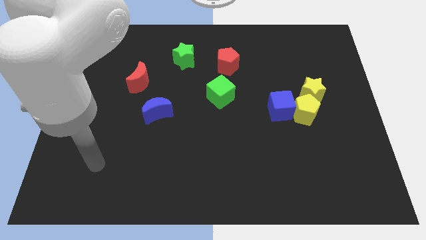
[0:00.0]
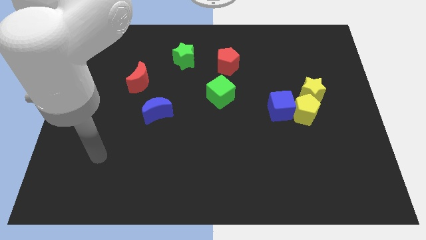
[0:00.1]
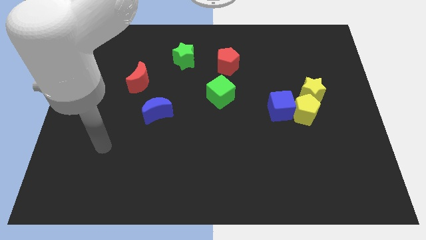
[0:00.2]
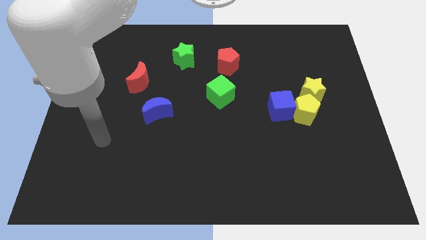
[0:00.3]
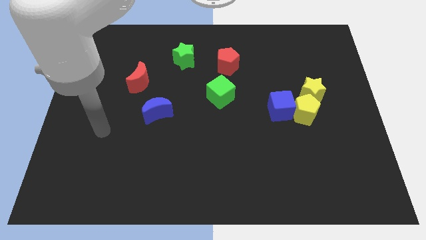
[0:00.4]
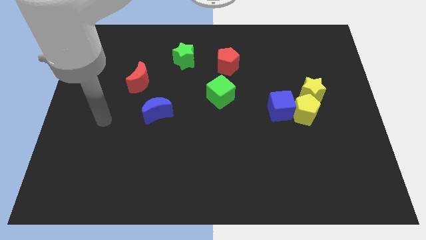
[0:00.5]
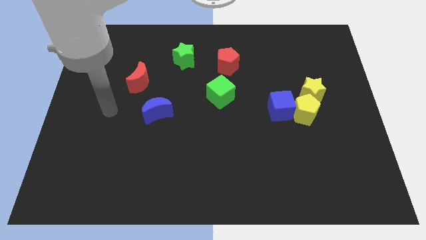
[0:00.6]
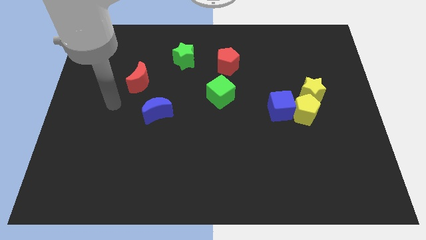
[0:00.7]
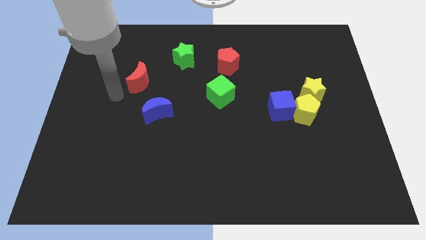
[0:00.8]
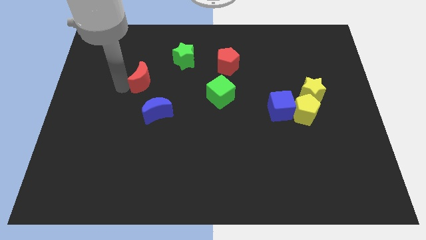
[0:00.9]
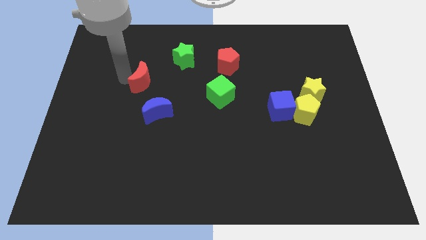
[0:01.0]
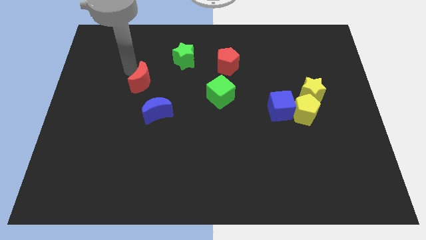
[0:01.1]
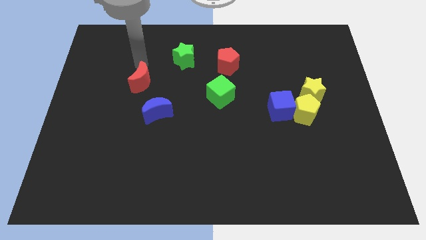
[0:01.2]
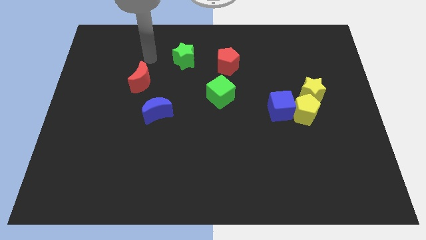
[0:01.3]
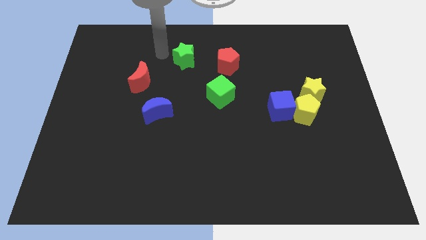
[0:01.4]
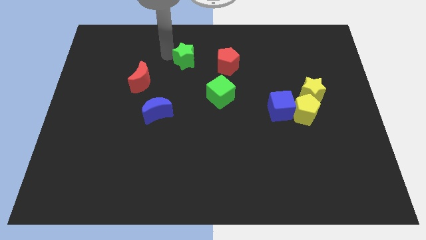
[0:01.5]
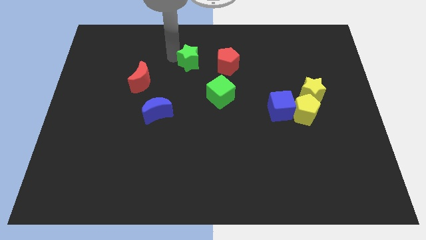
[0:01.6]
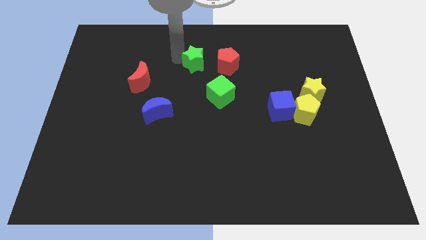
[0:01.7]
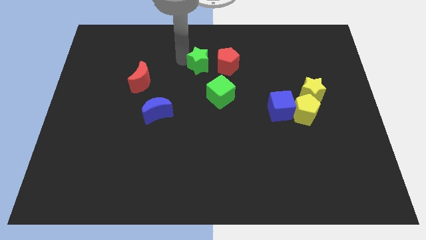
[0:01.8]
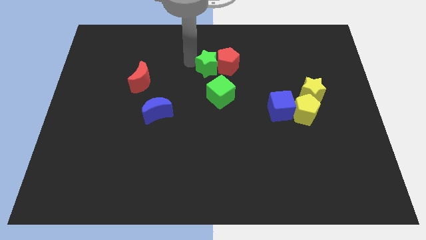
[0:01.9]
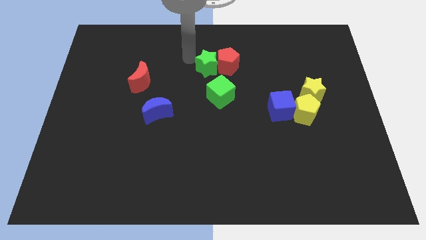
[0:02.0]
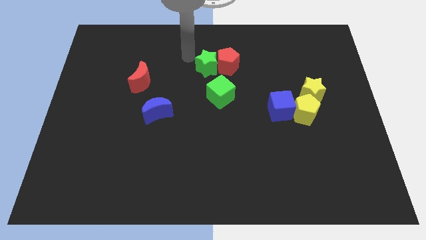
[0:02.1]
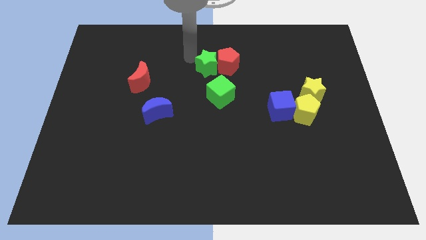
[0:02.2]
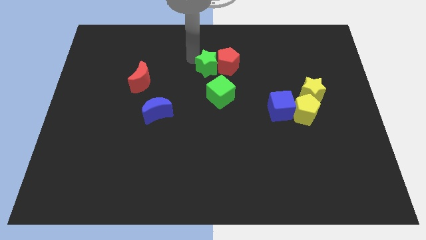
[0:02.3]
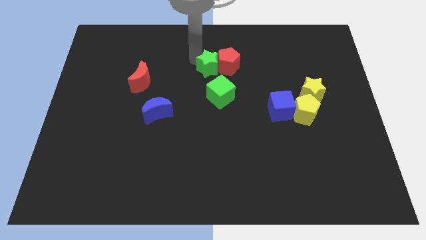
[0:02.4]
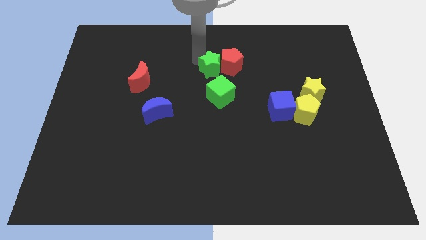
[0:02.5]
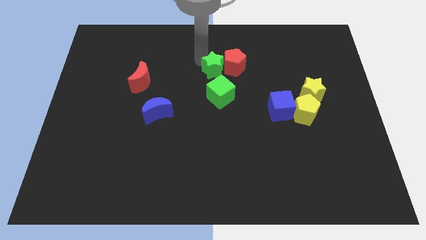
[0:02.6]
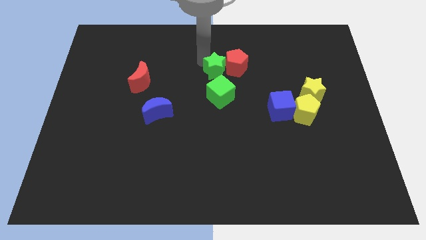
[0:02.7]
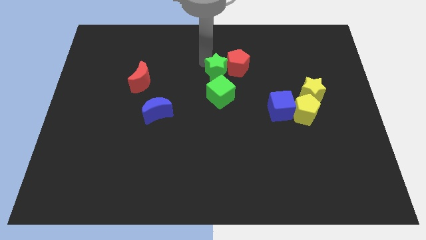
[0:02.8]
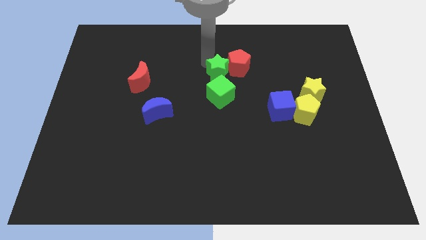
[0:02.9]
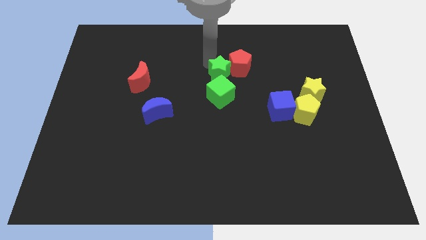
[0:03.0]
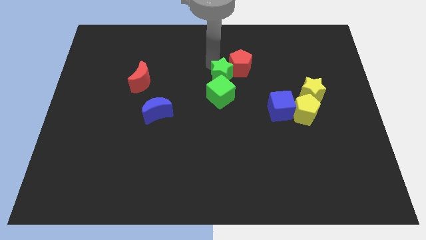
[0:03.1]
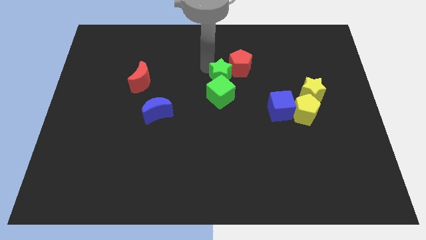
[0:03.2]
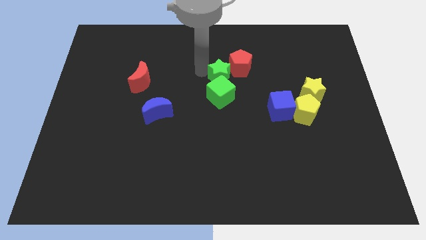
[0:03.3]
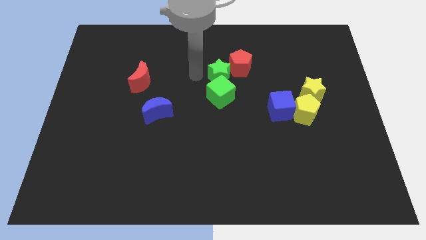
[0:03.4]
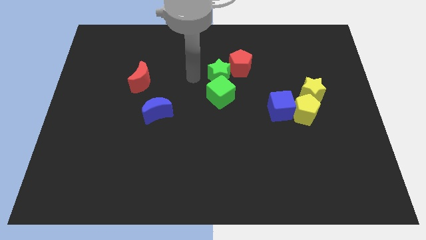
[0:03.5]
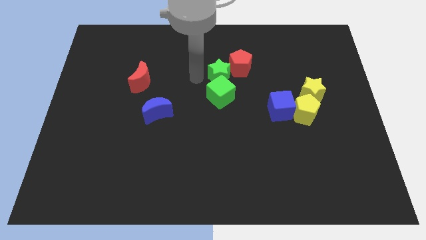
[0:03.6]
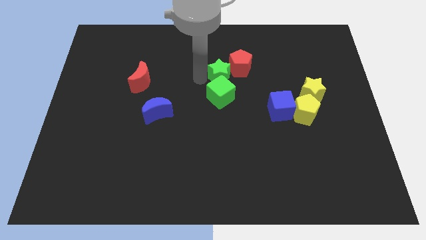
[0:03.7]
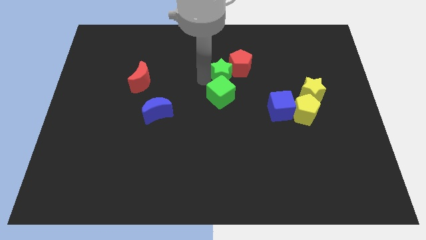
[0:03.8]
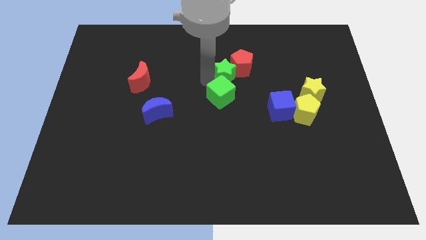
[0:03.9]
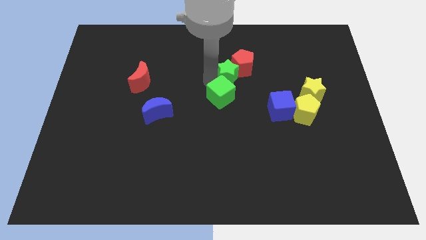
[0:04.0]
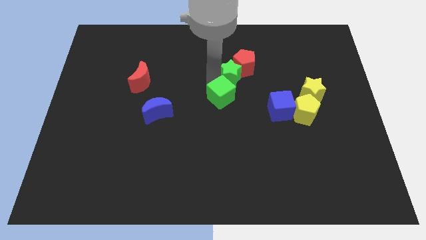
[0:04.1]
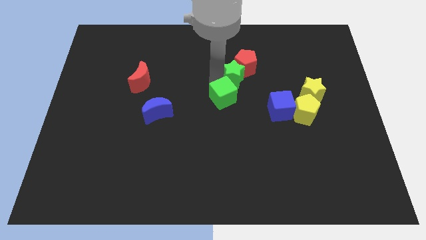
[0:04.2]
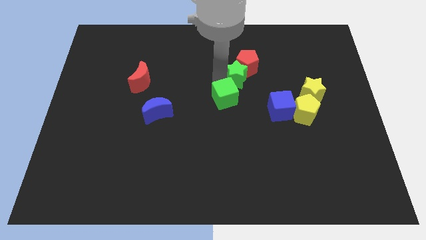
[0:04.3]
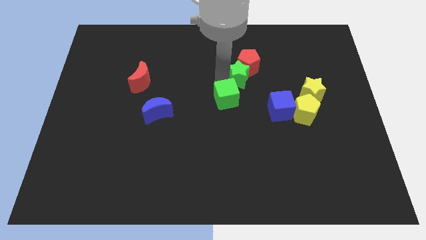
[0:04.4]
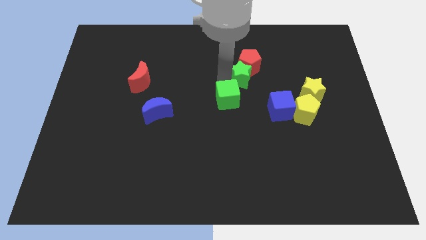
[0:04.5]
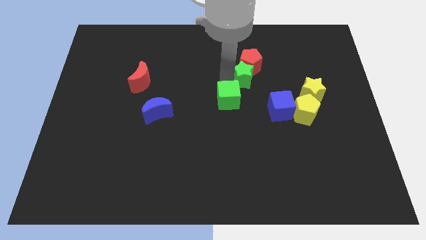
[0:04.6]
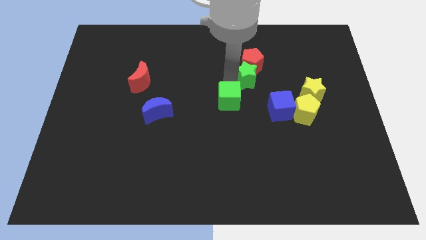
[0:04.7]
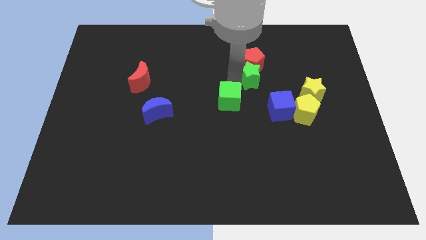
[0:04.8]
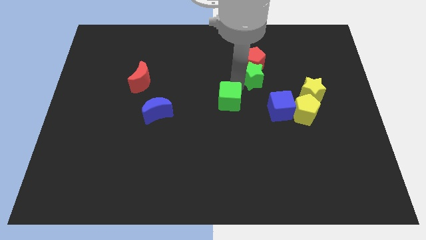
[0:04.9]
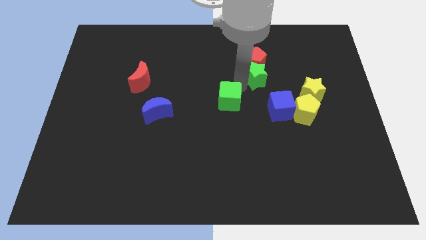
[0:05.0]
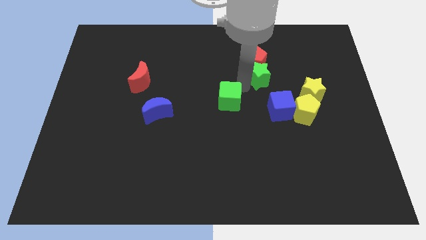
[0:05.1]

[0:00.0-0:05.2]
move the green star above the blue cube

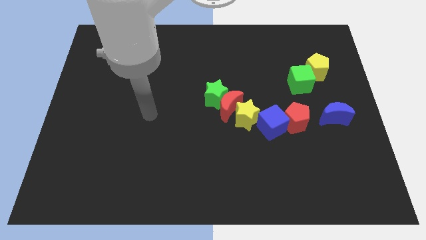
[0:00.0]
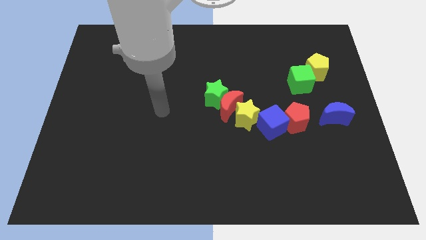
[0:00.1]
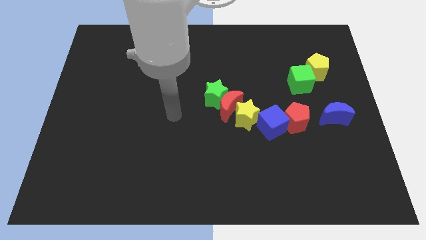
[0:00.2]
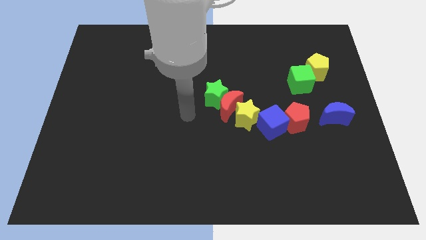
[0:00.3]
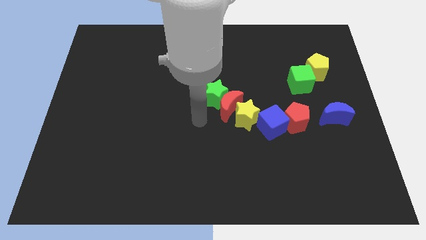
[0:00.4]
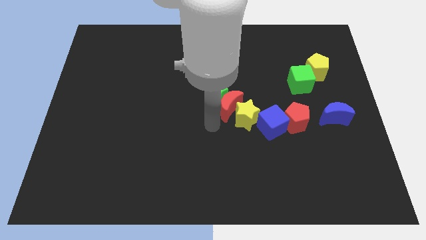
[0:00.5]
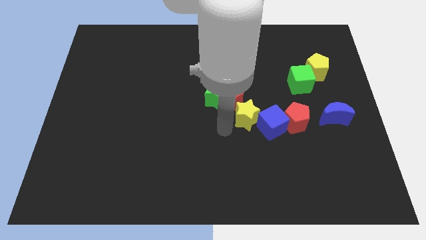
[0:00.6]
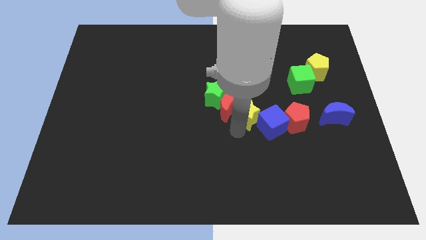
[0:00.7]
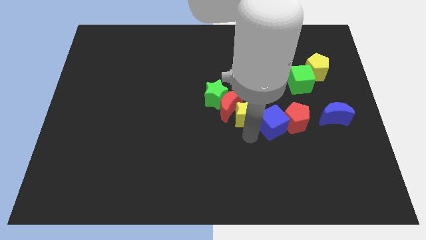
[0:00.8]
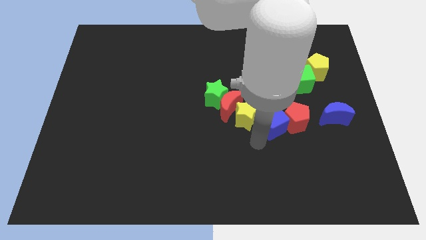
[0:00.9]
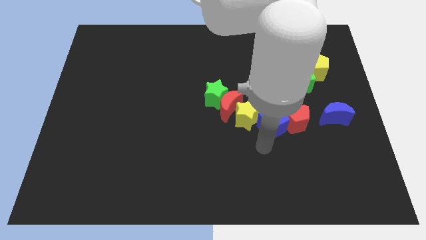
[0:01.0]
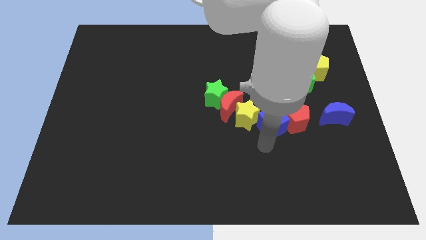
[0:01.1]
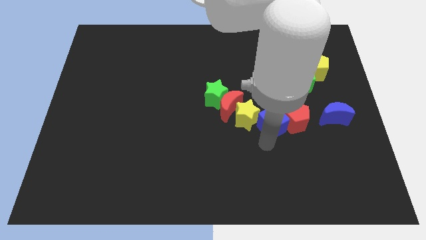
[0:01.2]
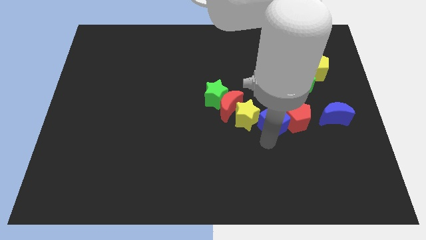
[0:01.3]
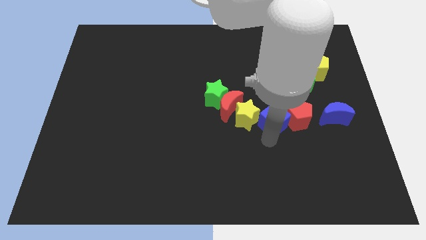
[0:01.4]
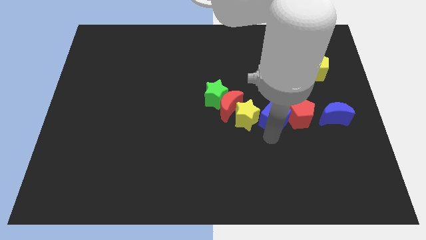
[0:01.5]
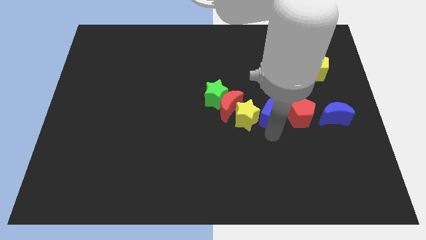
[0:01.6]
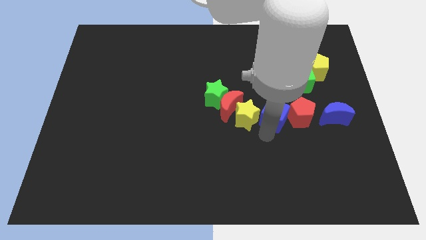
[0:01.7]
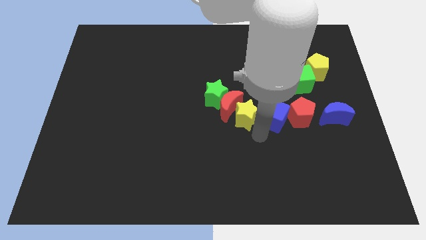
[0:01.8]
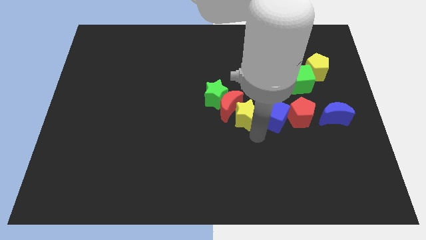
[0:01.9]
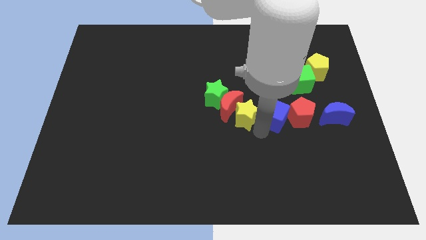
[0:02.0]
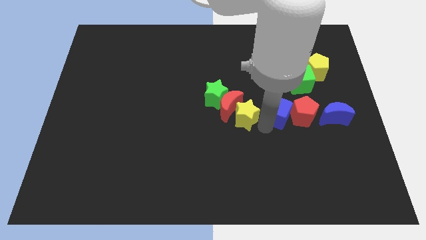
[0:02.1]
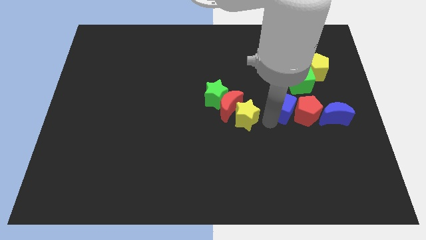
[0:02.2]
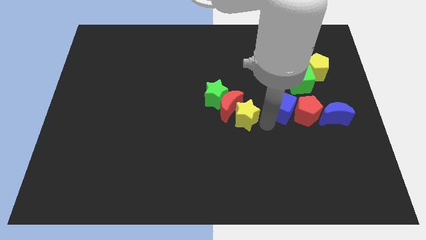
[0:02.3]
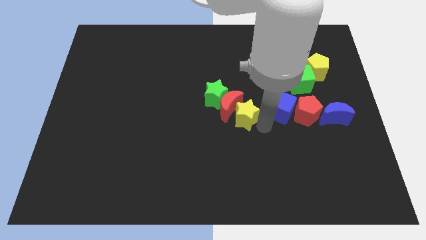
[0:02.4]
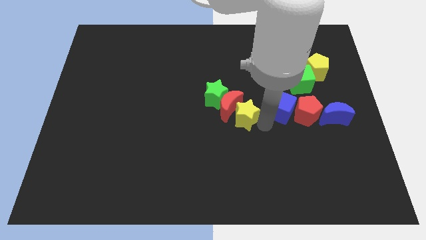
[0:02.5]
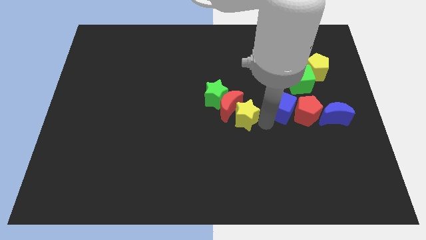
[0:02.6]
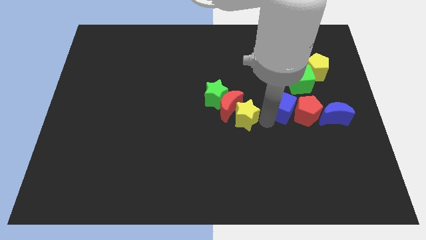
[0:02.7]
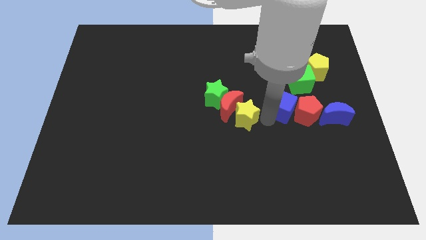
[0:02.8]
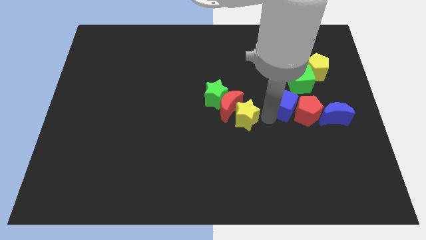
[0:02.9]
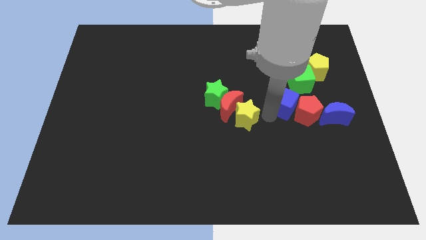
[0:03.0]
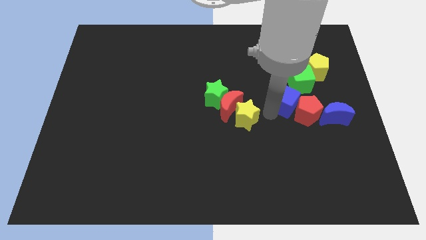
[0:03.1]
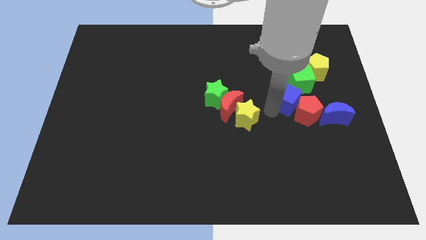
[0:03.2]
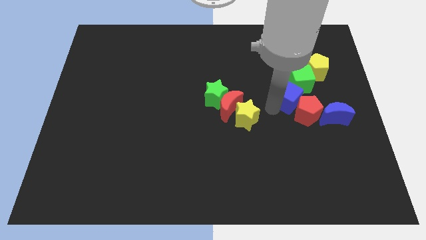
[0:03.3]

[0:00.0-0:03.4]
move the blue cube diagonally up and to the left of the blue moon
